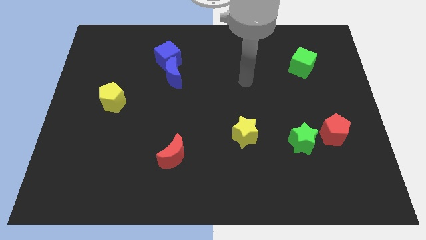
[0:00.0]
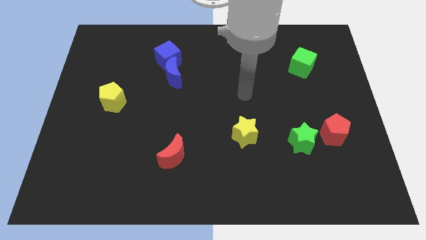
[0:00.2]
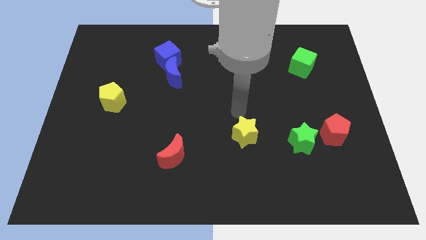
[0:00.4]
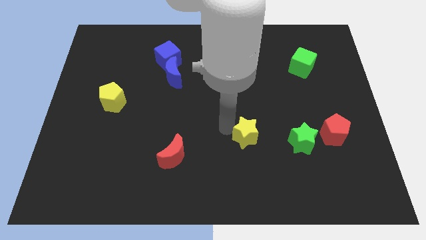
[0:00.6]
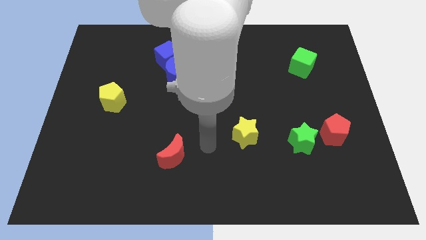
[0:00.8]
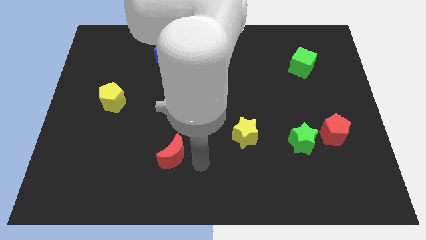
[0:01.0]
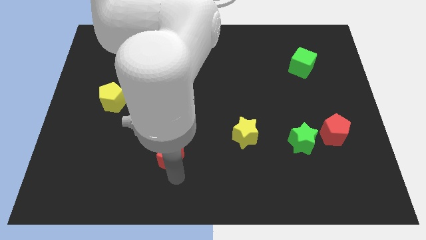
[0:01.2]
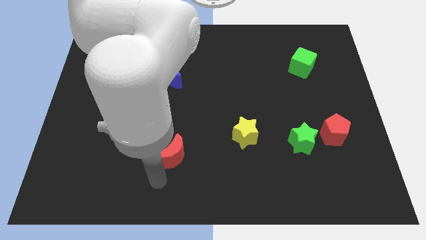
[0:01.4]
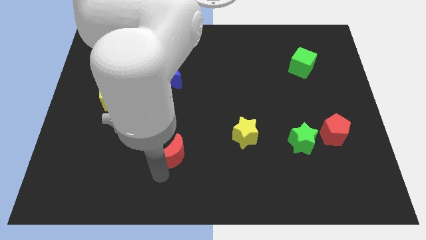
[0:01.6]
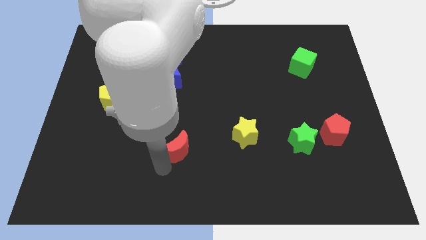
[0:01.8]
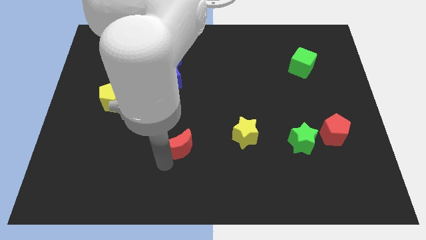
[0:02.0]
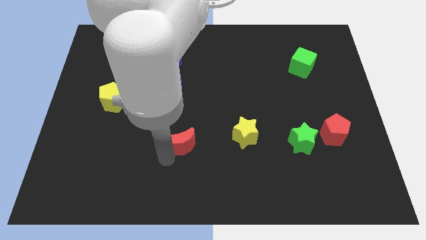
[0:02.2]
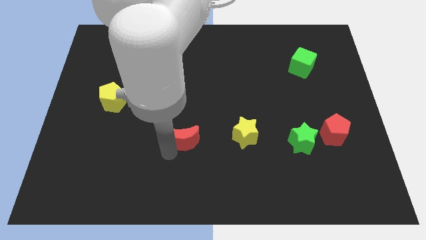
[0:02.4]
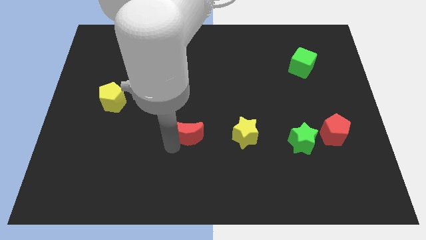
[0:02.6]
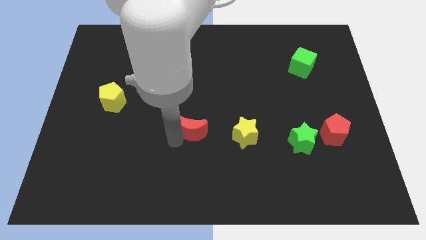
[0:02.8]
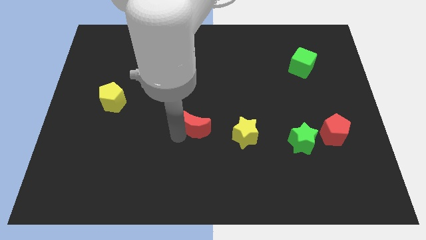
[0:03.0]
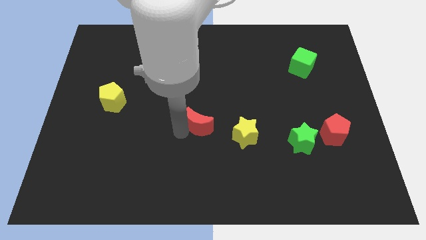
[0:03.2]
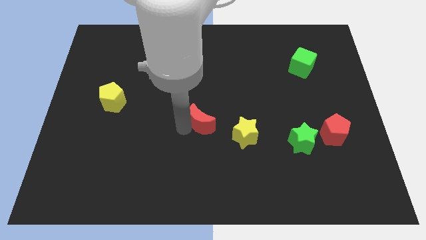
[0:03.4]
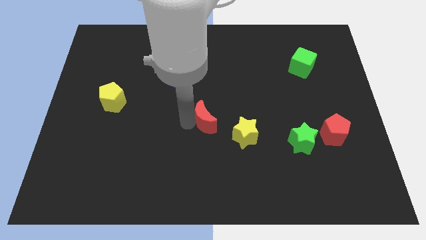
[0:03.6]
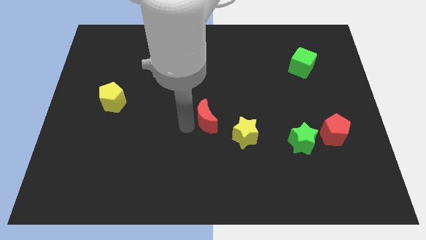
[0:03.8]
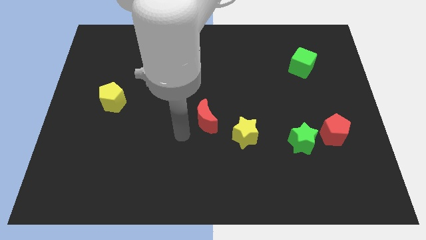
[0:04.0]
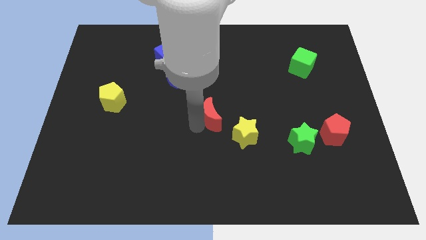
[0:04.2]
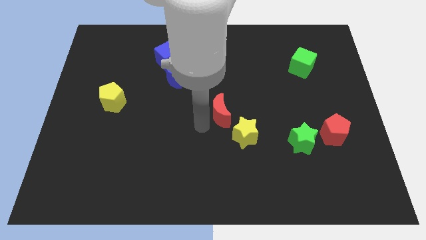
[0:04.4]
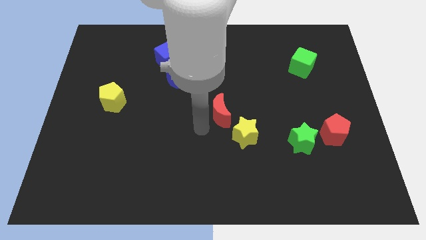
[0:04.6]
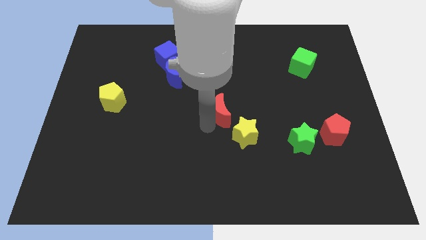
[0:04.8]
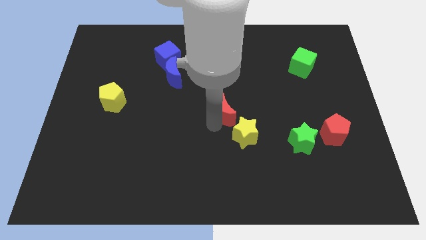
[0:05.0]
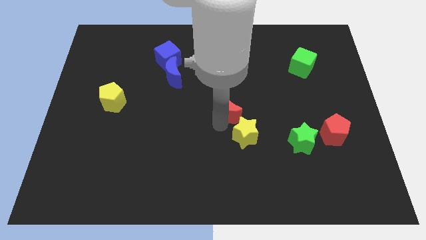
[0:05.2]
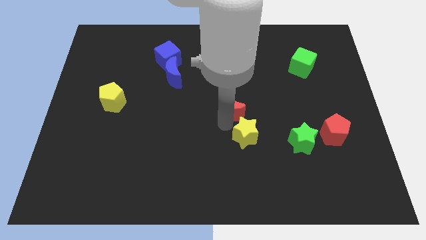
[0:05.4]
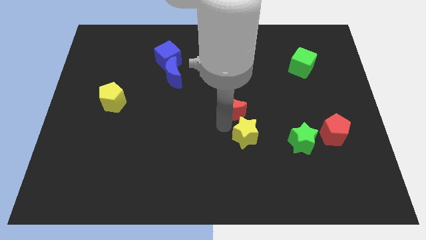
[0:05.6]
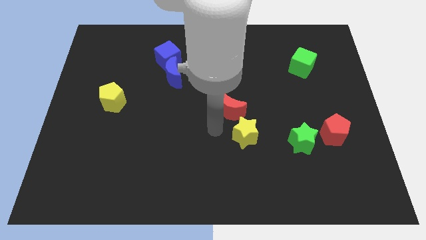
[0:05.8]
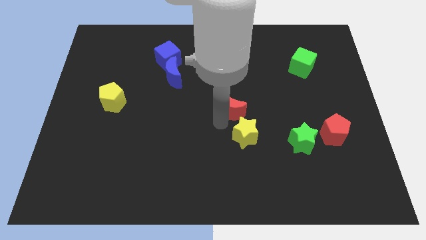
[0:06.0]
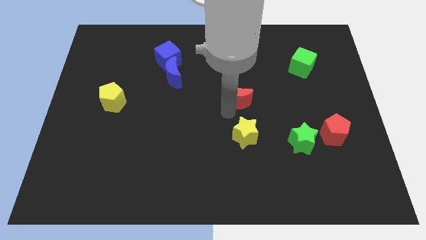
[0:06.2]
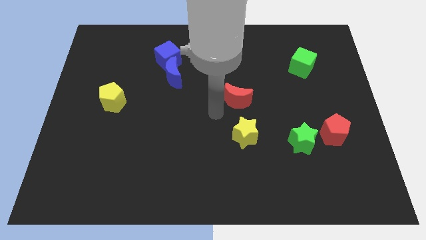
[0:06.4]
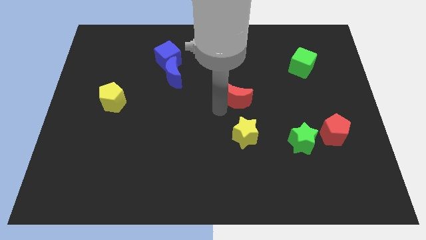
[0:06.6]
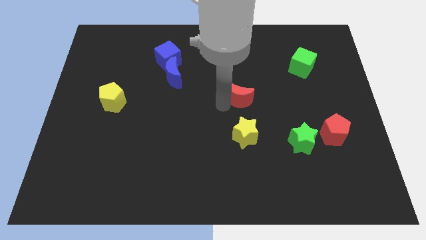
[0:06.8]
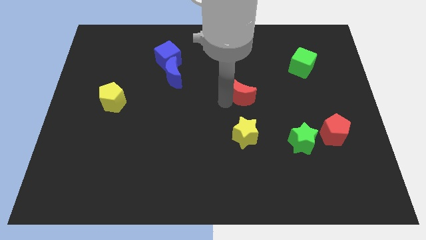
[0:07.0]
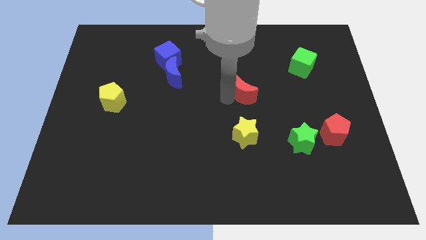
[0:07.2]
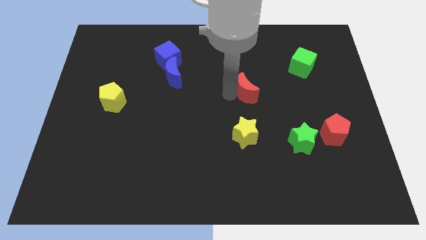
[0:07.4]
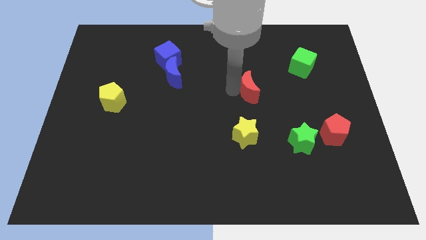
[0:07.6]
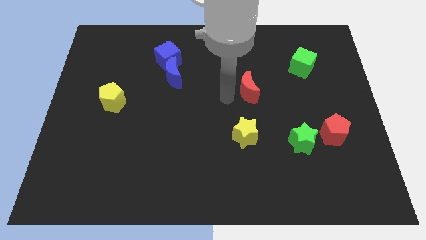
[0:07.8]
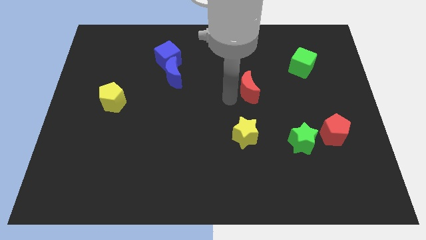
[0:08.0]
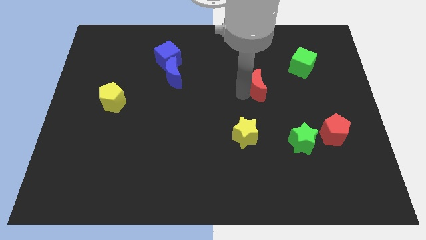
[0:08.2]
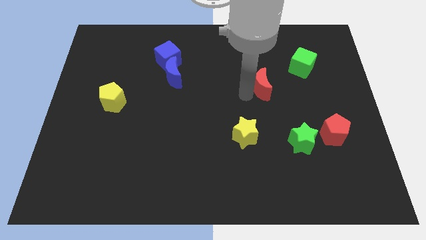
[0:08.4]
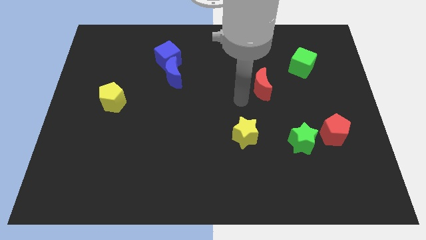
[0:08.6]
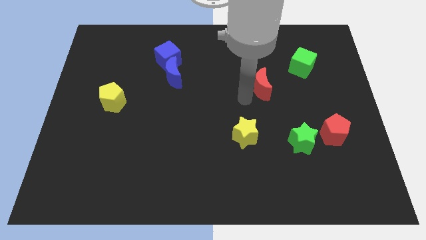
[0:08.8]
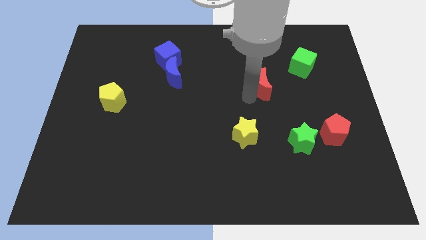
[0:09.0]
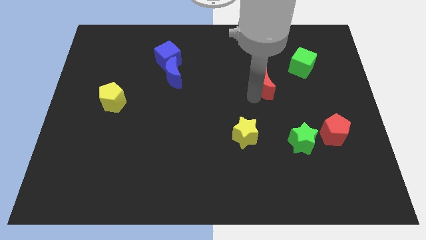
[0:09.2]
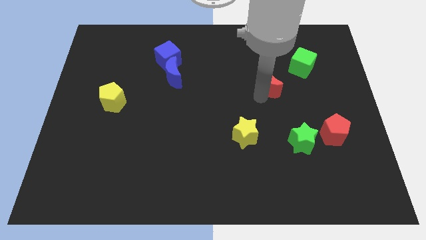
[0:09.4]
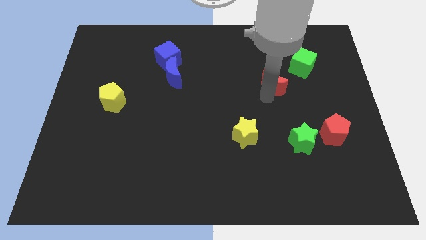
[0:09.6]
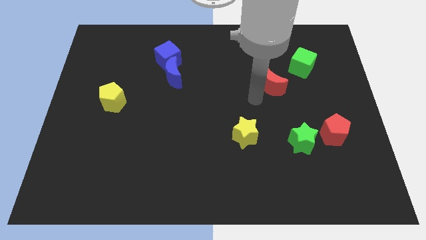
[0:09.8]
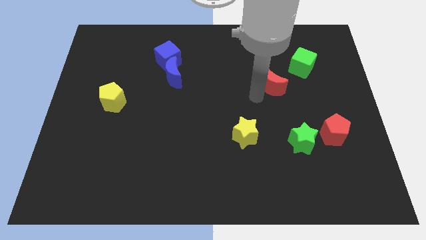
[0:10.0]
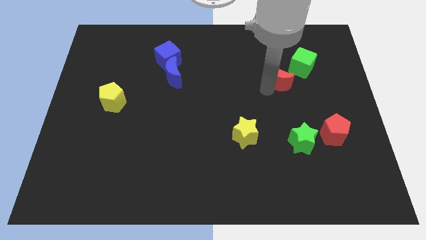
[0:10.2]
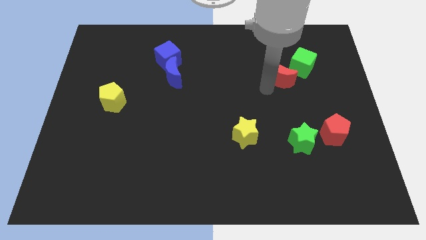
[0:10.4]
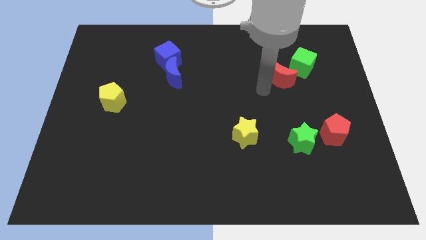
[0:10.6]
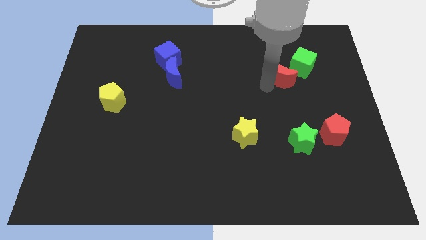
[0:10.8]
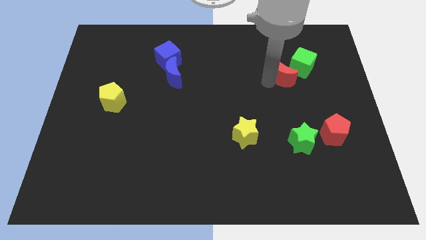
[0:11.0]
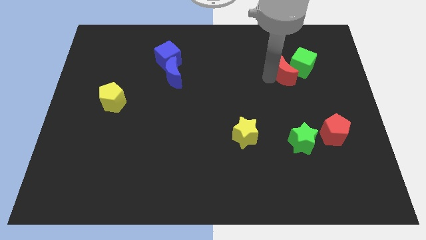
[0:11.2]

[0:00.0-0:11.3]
push the red moon to the green cube

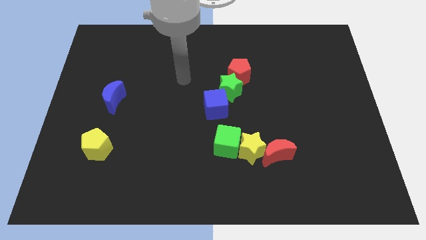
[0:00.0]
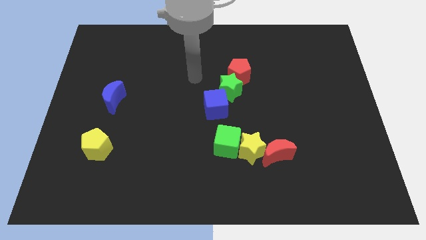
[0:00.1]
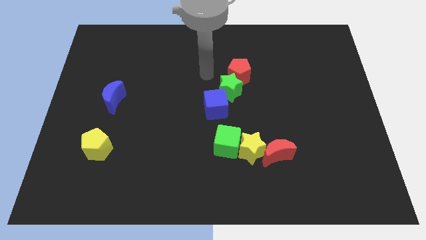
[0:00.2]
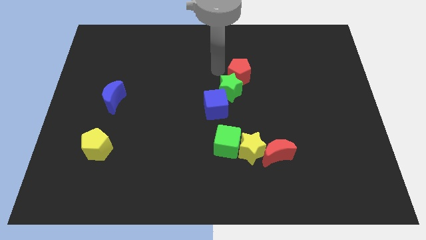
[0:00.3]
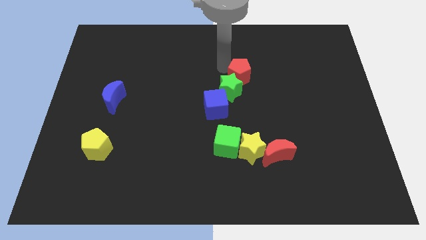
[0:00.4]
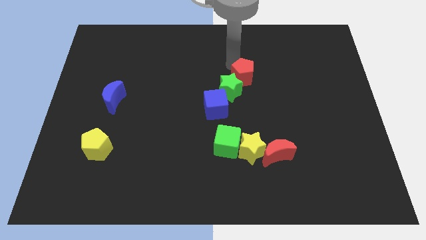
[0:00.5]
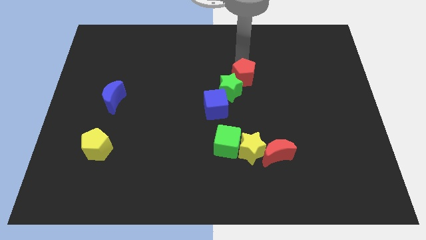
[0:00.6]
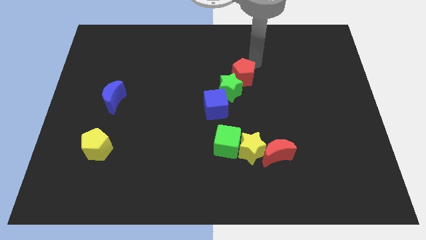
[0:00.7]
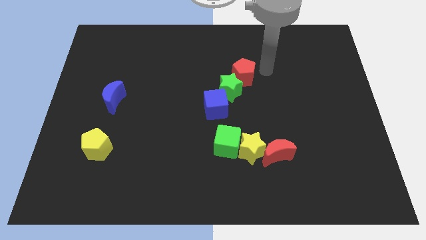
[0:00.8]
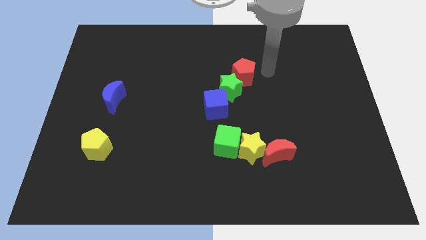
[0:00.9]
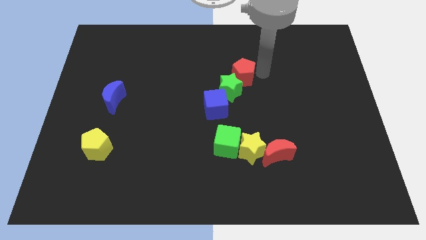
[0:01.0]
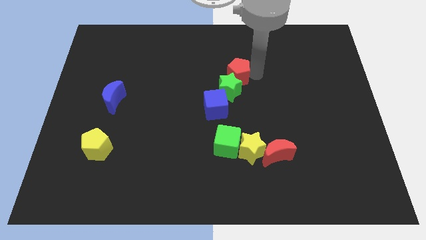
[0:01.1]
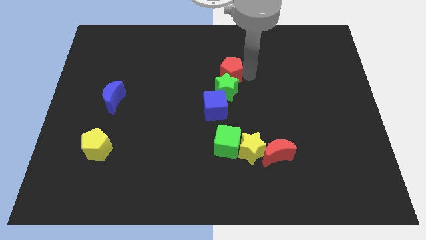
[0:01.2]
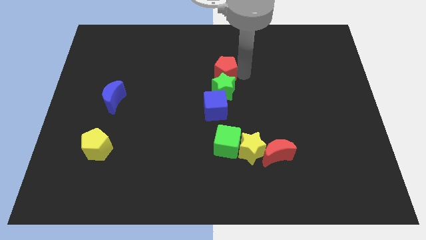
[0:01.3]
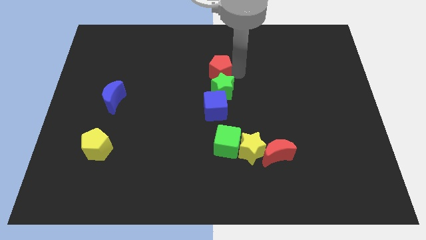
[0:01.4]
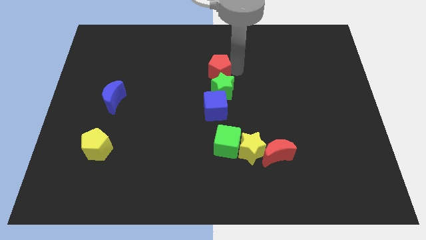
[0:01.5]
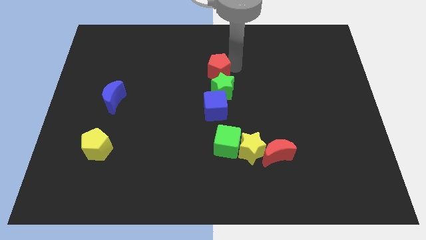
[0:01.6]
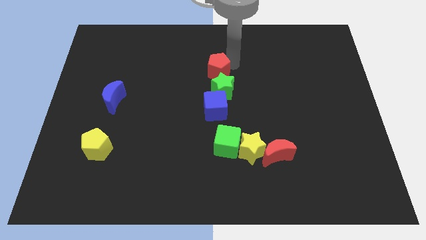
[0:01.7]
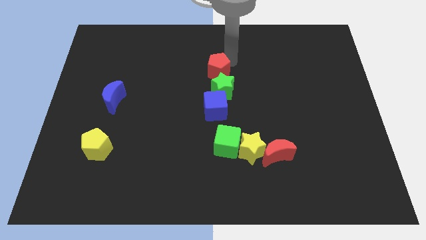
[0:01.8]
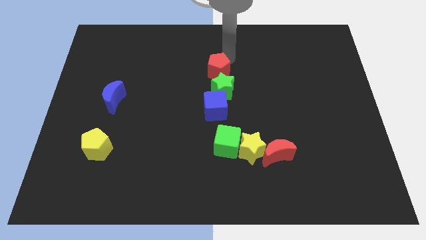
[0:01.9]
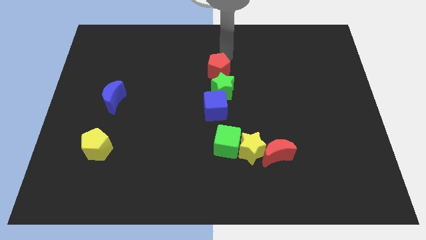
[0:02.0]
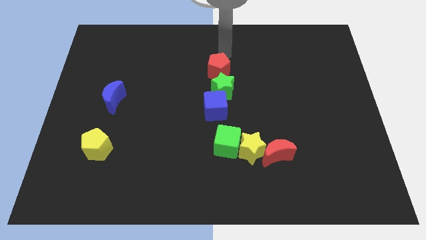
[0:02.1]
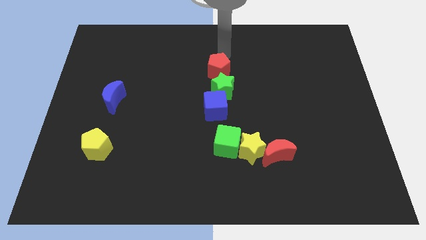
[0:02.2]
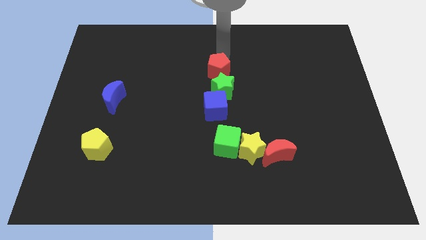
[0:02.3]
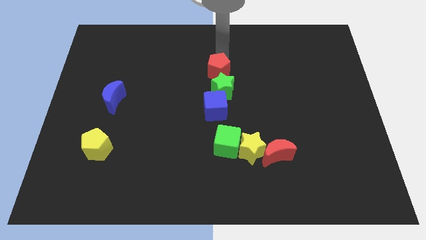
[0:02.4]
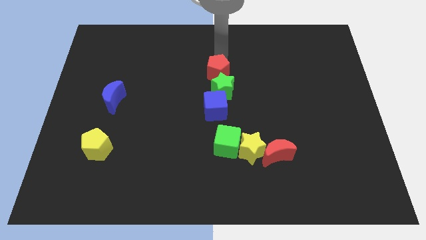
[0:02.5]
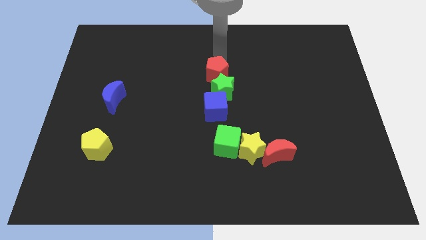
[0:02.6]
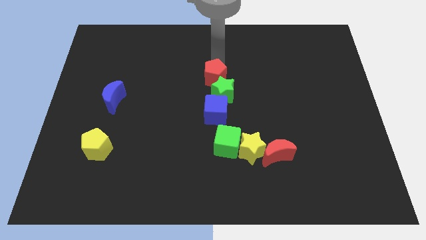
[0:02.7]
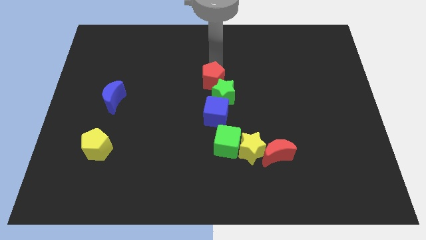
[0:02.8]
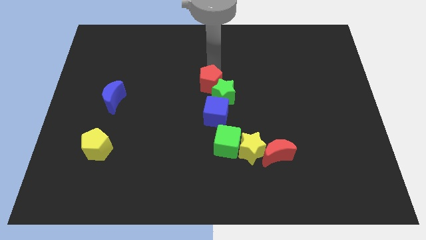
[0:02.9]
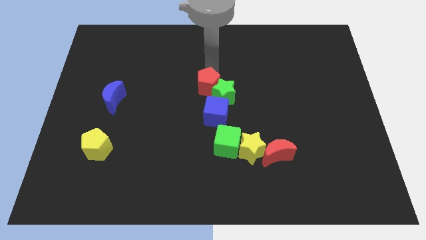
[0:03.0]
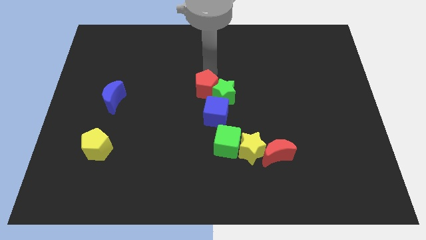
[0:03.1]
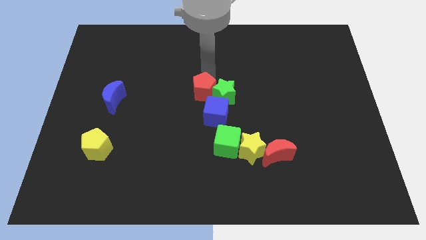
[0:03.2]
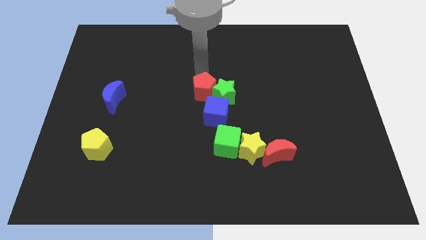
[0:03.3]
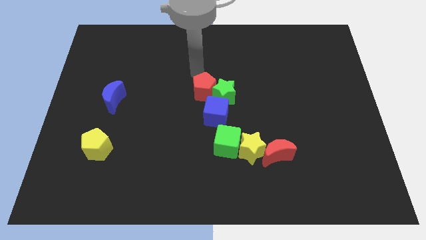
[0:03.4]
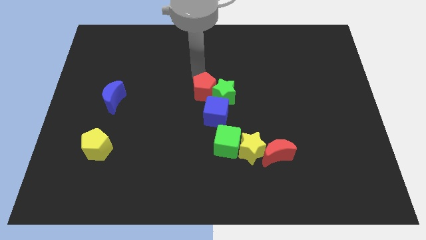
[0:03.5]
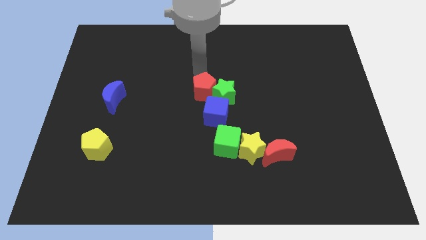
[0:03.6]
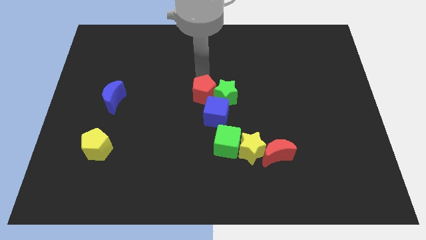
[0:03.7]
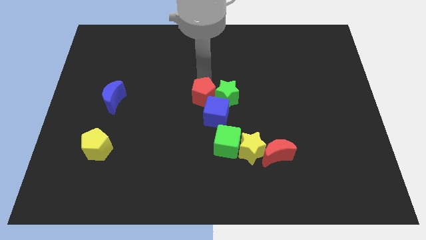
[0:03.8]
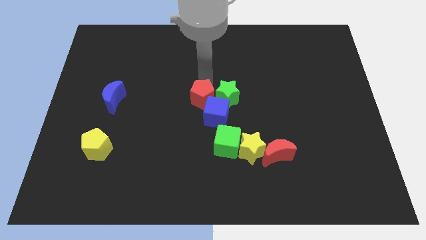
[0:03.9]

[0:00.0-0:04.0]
push the red pentagon next to the blue cube
